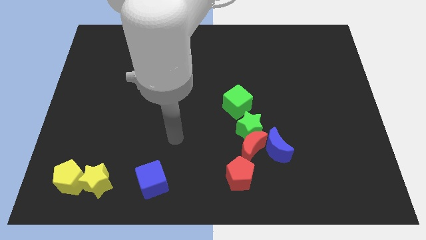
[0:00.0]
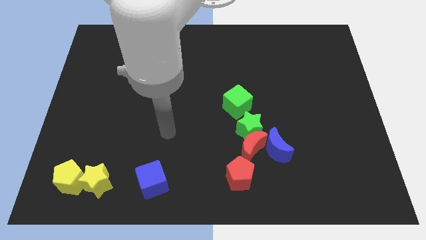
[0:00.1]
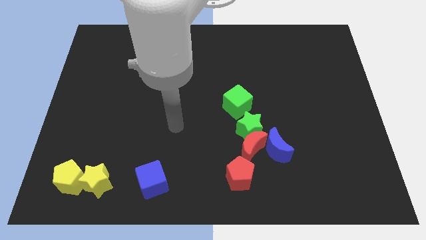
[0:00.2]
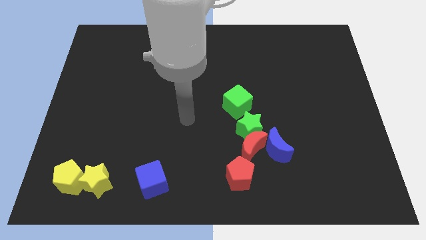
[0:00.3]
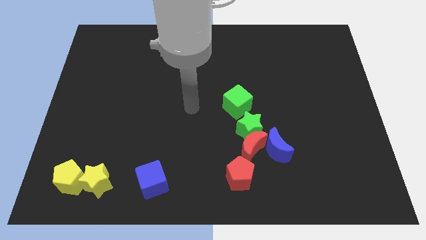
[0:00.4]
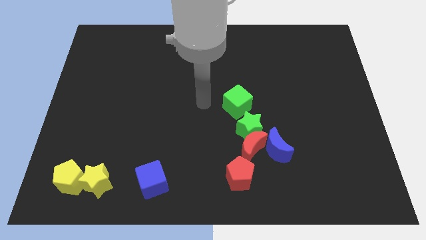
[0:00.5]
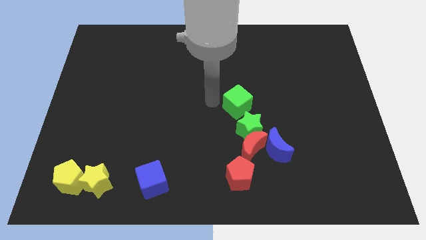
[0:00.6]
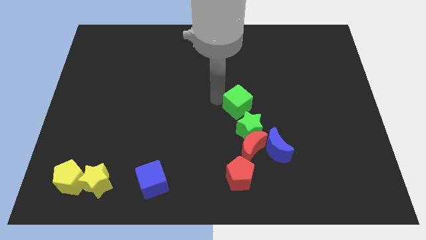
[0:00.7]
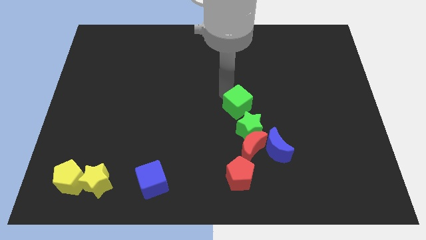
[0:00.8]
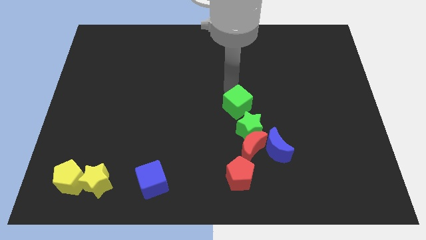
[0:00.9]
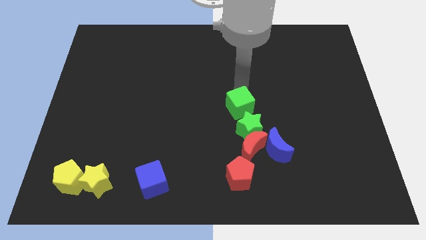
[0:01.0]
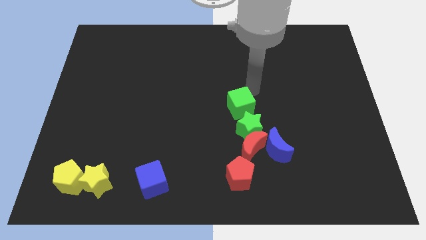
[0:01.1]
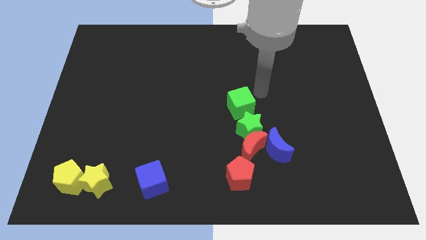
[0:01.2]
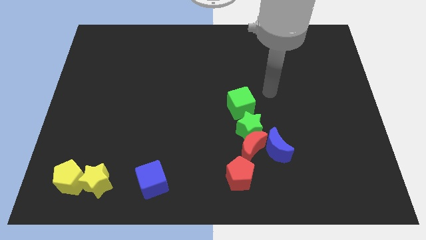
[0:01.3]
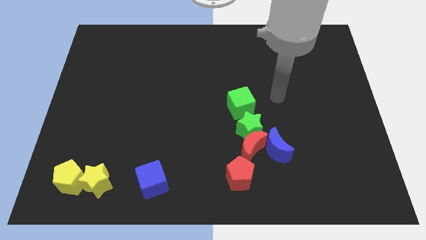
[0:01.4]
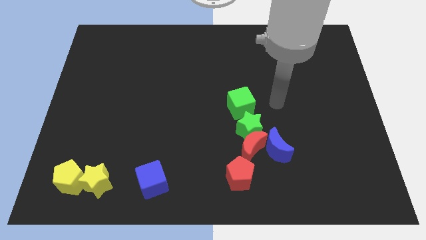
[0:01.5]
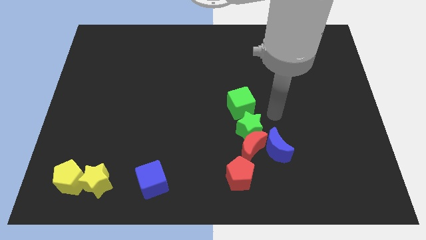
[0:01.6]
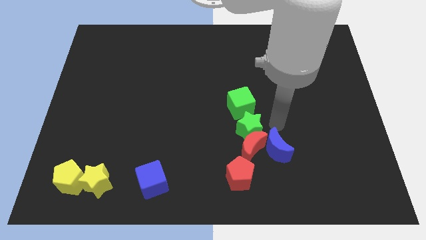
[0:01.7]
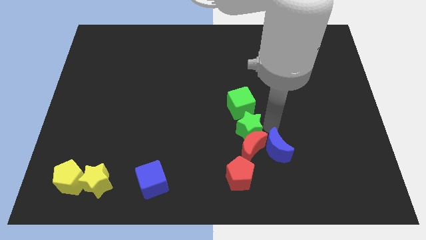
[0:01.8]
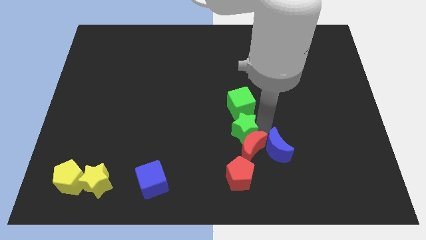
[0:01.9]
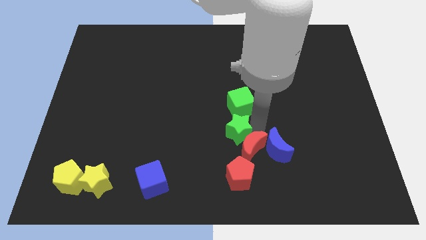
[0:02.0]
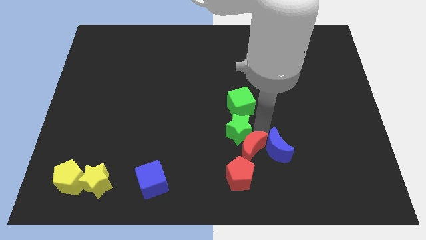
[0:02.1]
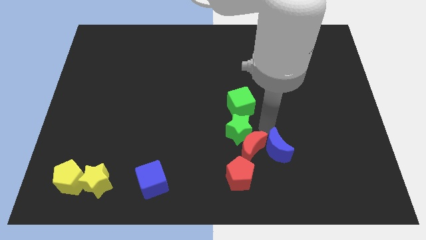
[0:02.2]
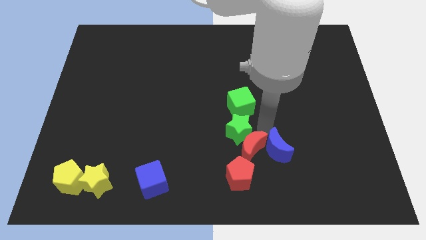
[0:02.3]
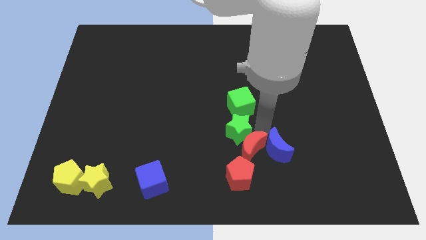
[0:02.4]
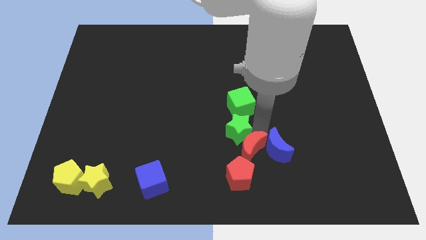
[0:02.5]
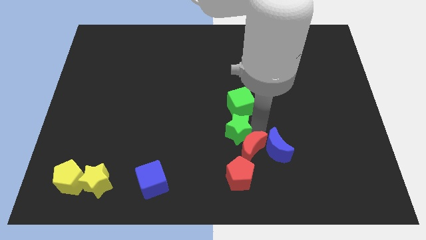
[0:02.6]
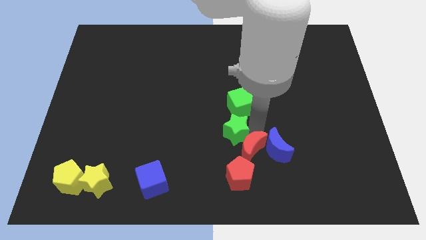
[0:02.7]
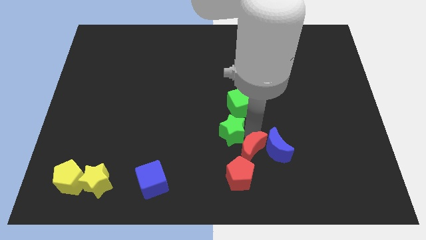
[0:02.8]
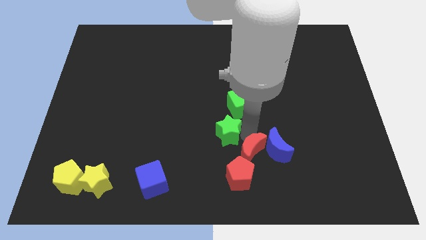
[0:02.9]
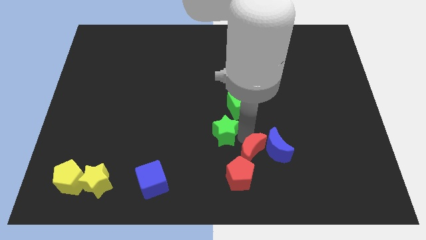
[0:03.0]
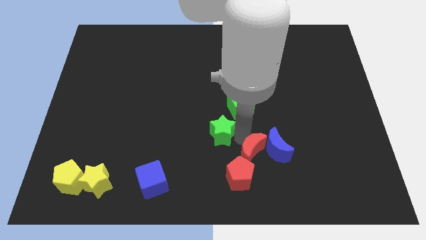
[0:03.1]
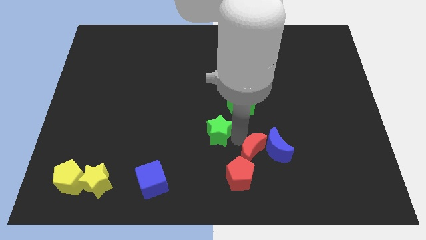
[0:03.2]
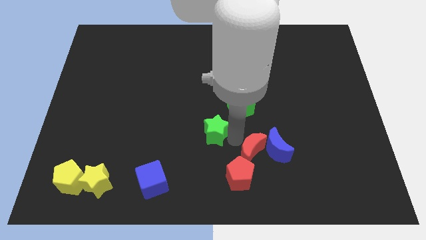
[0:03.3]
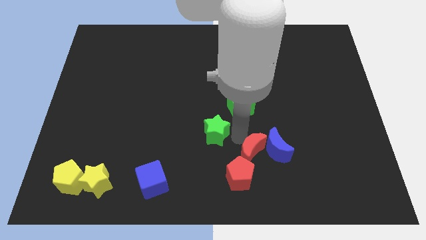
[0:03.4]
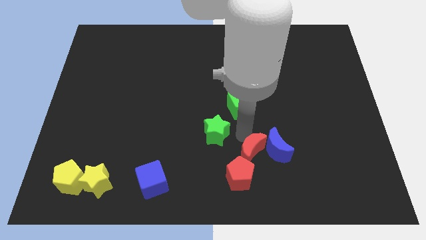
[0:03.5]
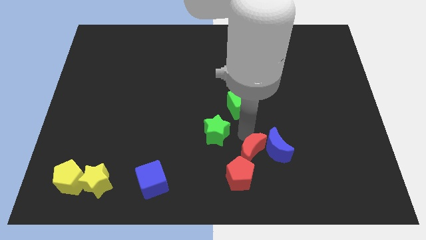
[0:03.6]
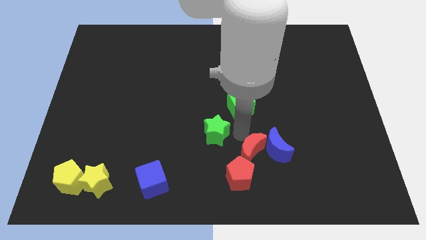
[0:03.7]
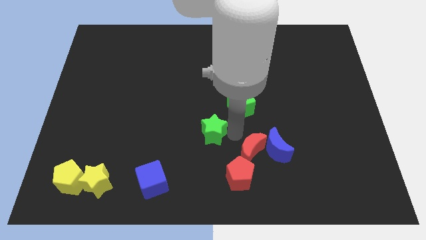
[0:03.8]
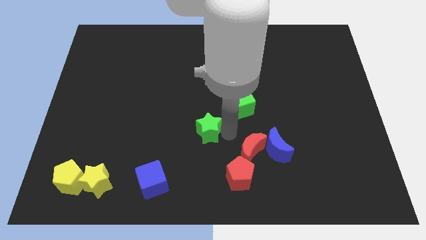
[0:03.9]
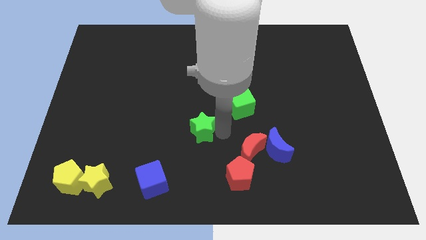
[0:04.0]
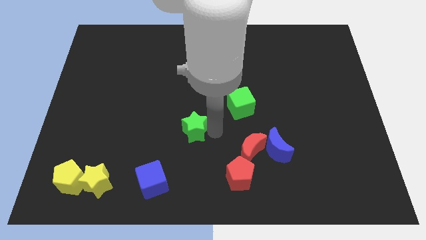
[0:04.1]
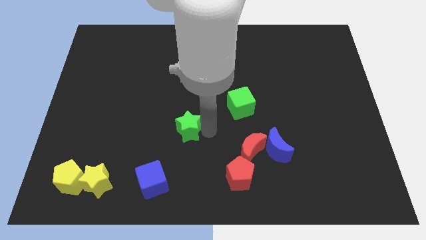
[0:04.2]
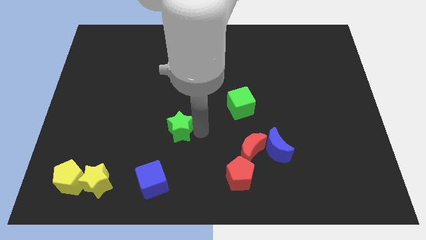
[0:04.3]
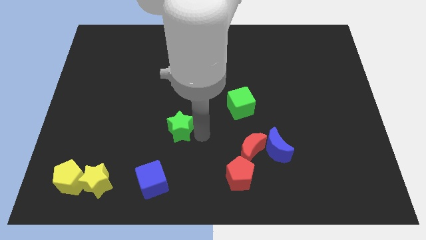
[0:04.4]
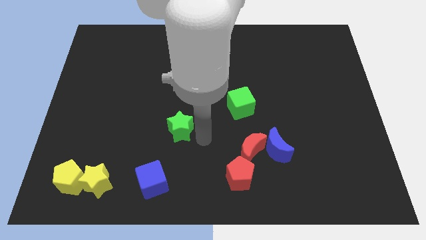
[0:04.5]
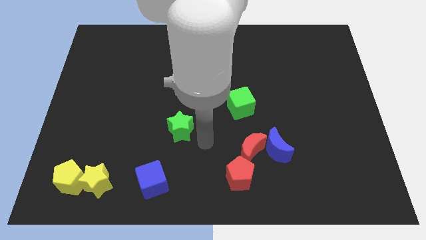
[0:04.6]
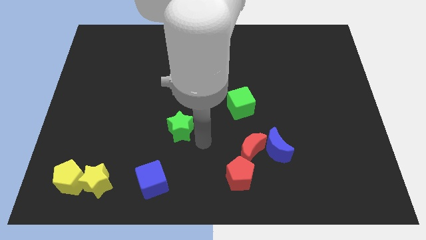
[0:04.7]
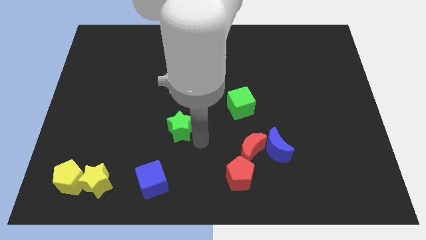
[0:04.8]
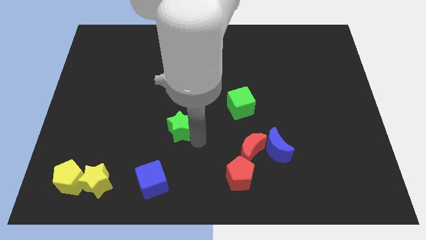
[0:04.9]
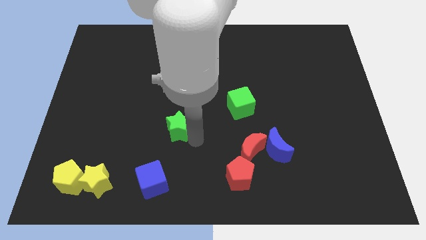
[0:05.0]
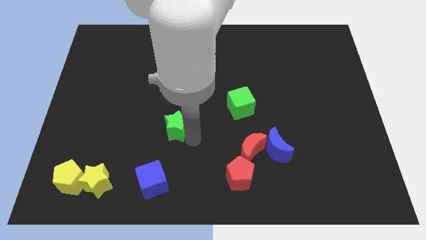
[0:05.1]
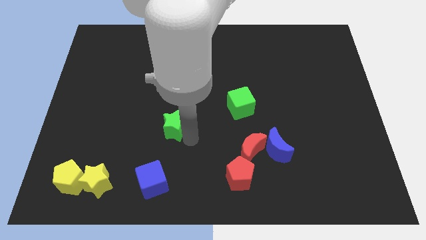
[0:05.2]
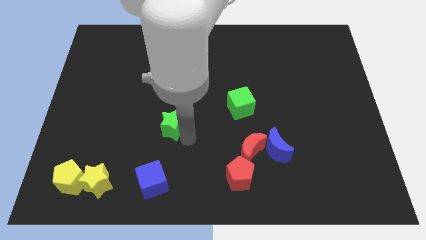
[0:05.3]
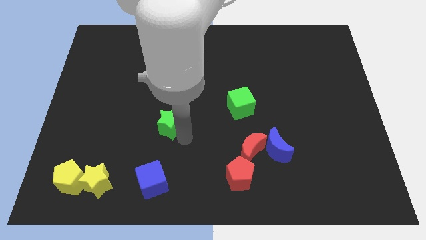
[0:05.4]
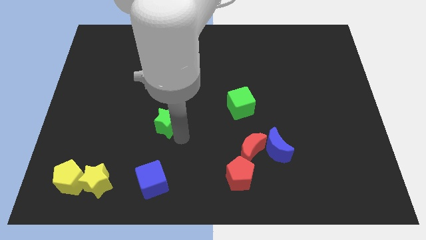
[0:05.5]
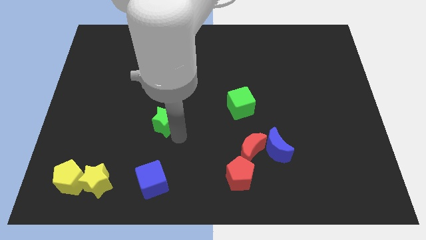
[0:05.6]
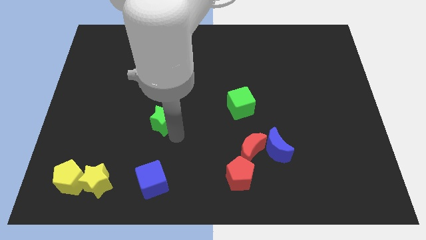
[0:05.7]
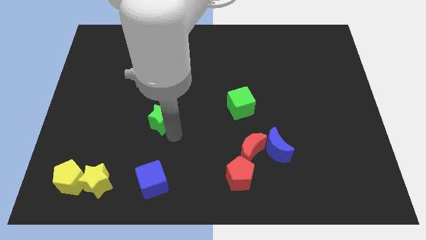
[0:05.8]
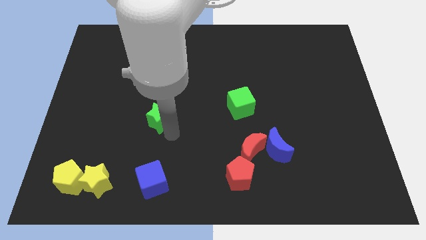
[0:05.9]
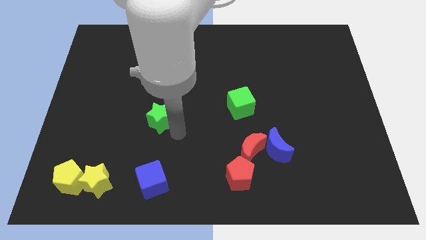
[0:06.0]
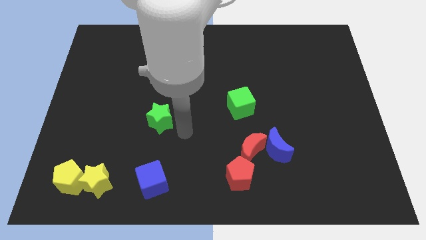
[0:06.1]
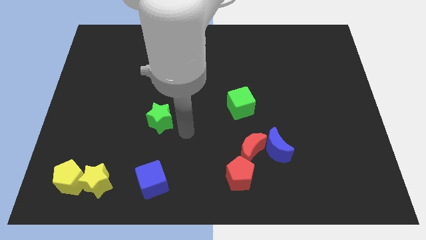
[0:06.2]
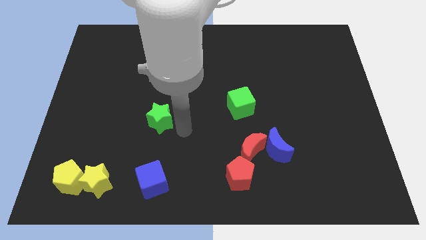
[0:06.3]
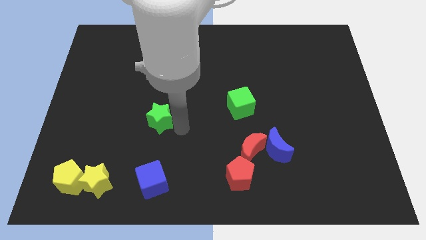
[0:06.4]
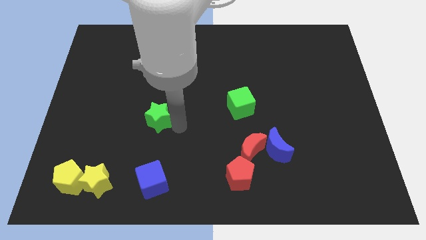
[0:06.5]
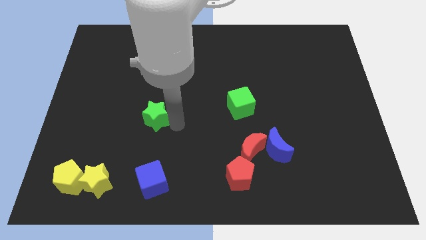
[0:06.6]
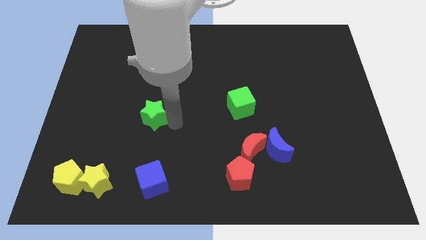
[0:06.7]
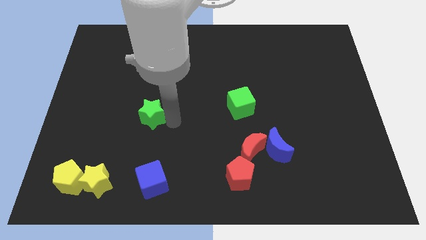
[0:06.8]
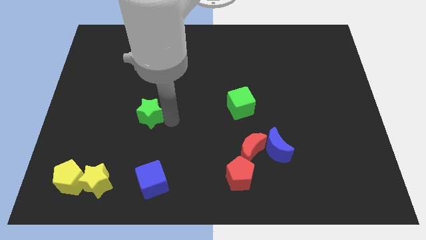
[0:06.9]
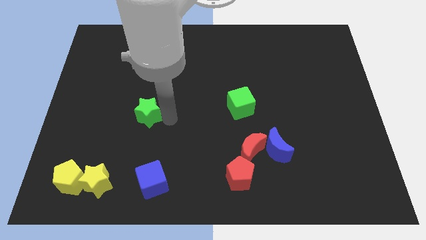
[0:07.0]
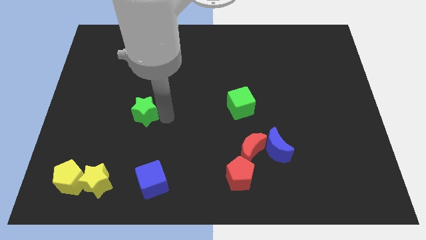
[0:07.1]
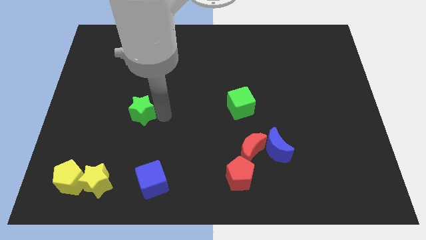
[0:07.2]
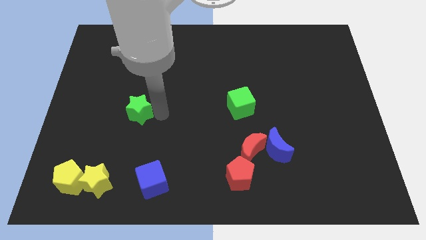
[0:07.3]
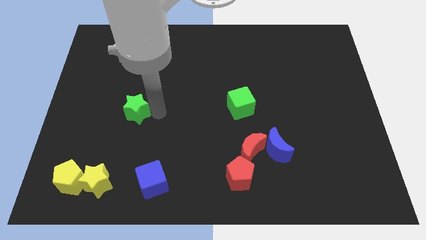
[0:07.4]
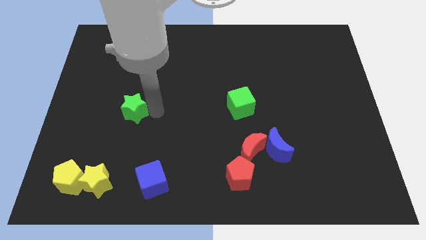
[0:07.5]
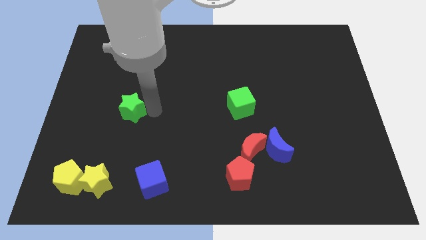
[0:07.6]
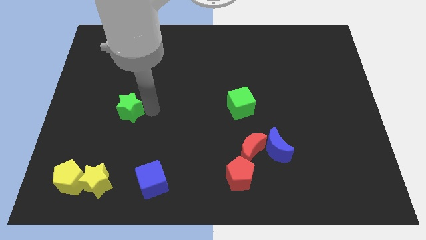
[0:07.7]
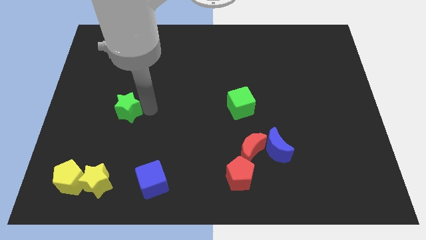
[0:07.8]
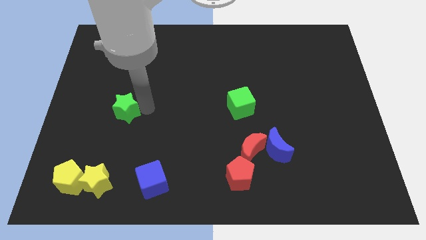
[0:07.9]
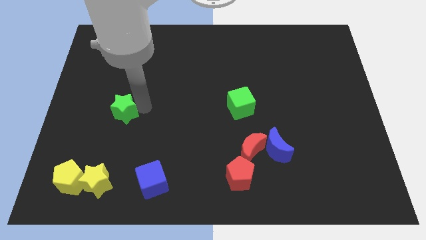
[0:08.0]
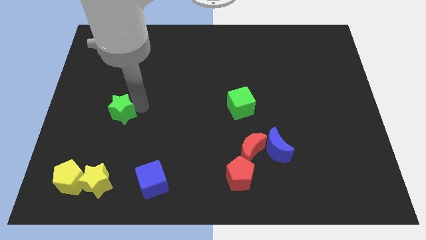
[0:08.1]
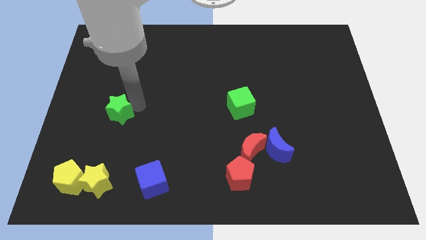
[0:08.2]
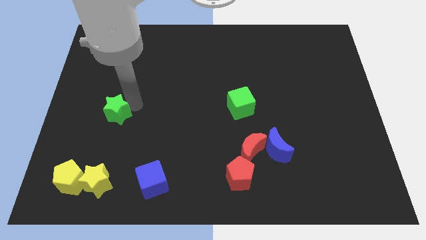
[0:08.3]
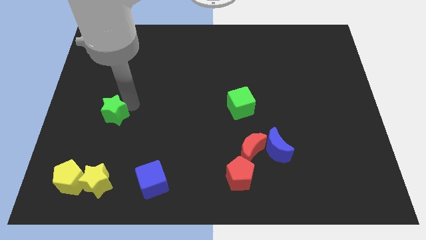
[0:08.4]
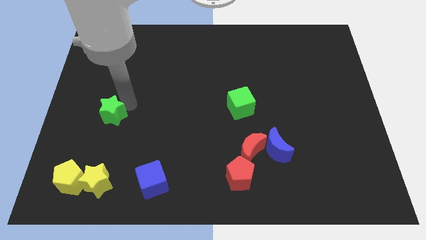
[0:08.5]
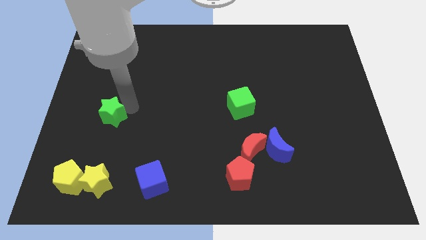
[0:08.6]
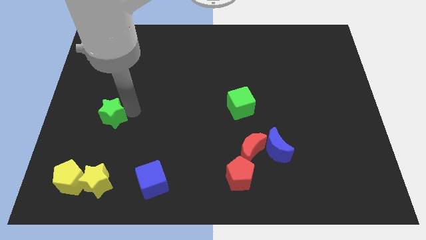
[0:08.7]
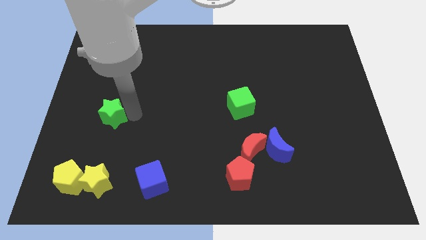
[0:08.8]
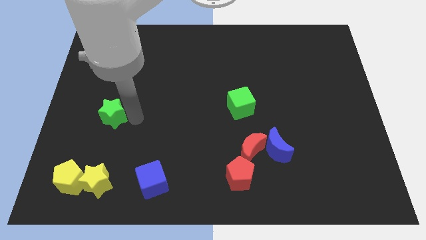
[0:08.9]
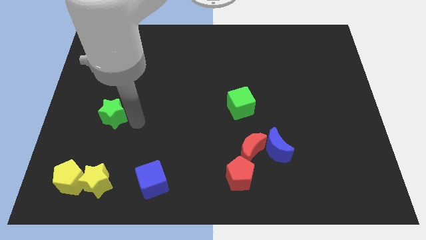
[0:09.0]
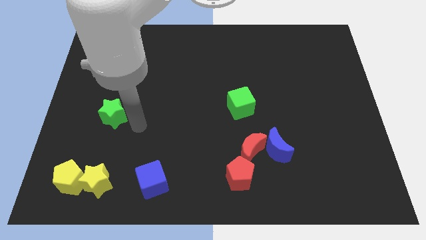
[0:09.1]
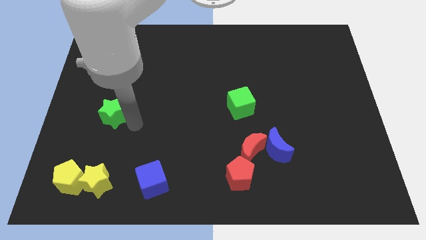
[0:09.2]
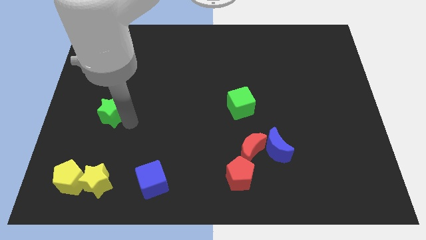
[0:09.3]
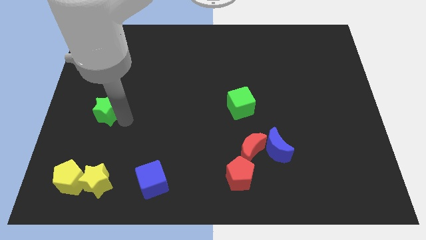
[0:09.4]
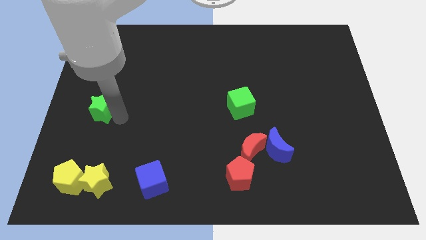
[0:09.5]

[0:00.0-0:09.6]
move the green star to the center left
